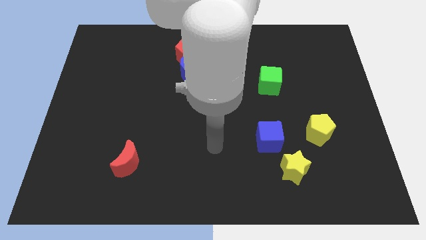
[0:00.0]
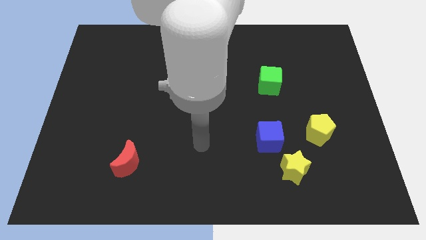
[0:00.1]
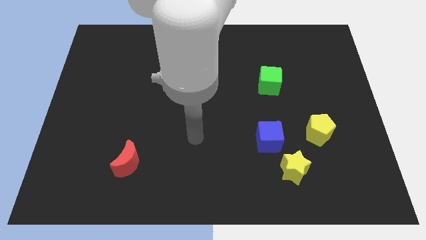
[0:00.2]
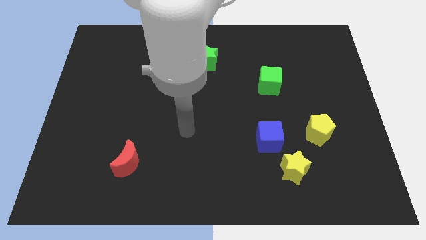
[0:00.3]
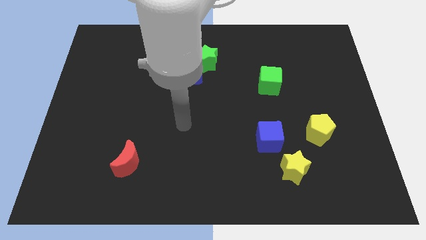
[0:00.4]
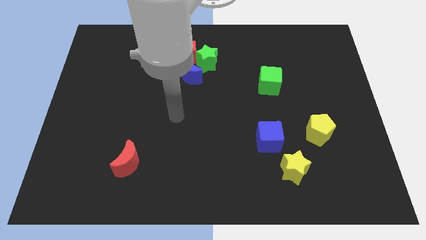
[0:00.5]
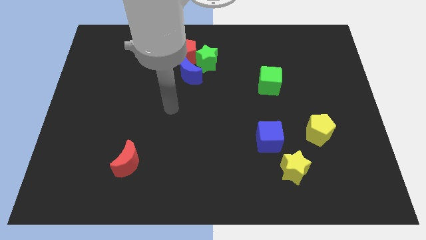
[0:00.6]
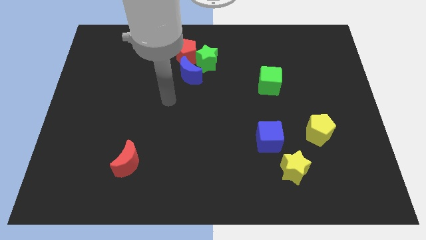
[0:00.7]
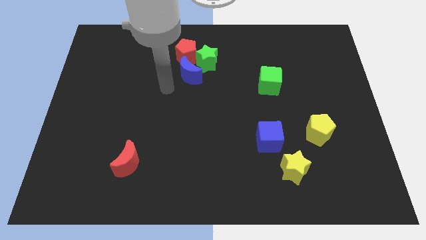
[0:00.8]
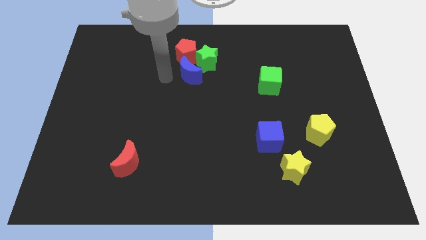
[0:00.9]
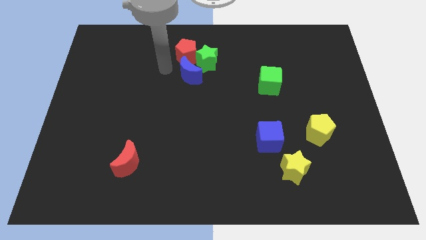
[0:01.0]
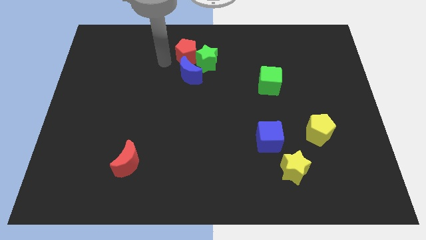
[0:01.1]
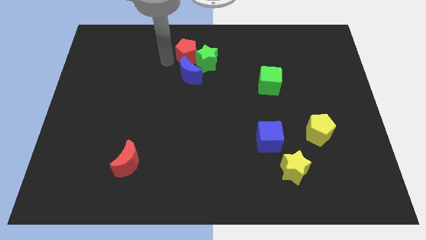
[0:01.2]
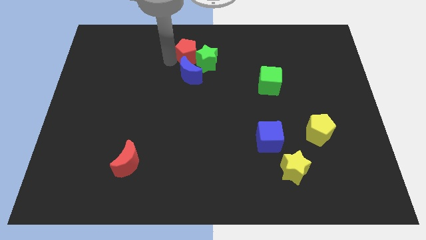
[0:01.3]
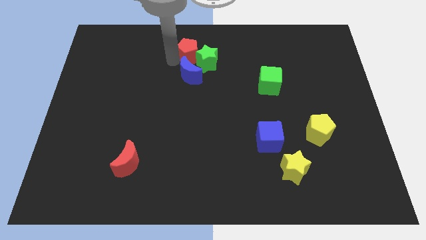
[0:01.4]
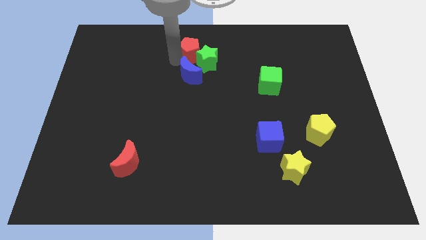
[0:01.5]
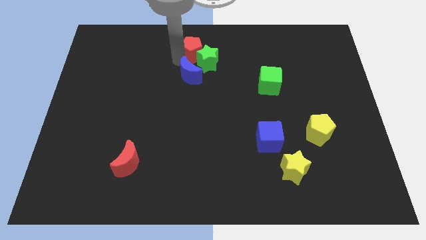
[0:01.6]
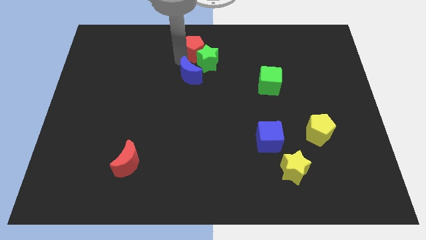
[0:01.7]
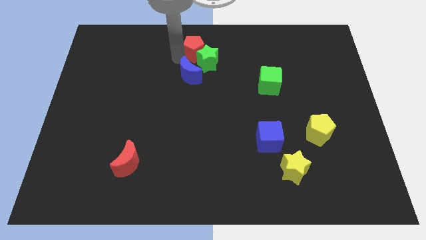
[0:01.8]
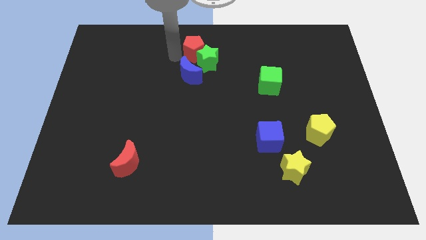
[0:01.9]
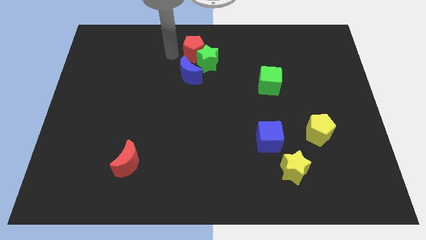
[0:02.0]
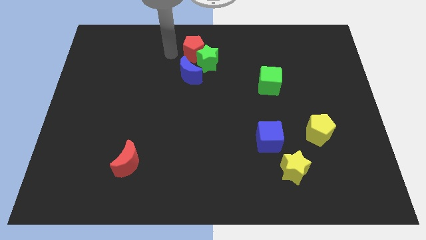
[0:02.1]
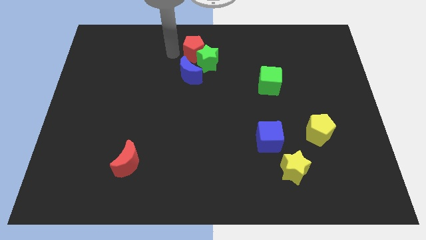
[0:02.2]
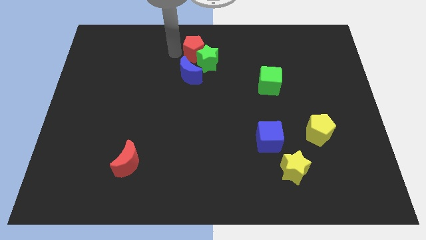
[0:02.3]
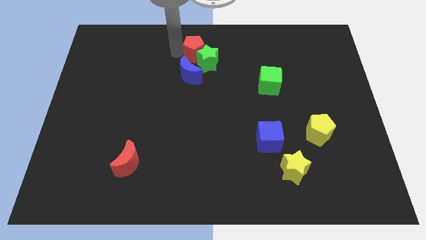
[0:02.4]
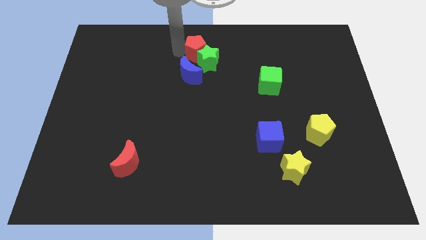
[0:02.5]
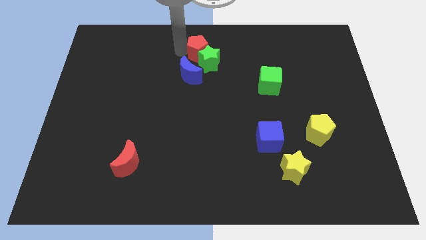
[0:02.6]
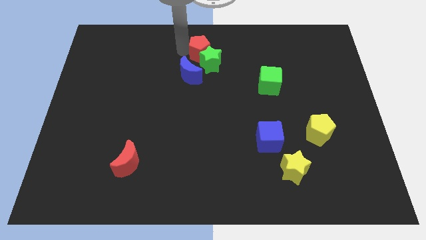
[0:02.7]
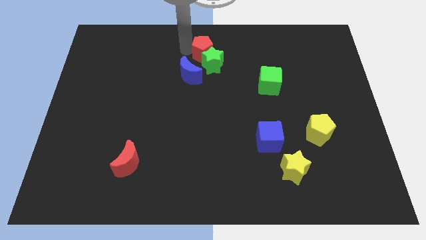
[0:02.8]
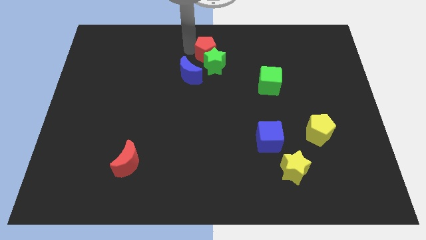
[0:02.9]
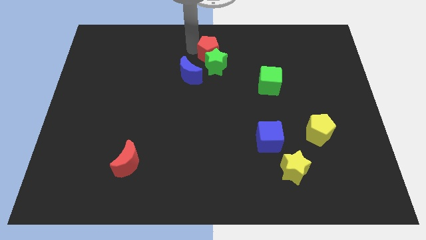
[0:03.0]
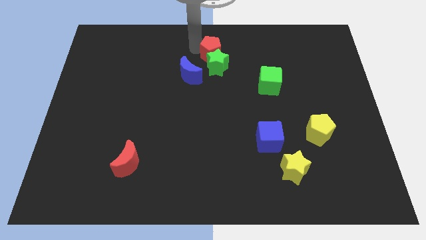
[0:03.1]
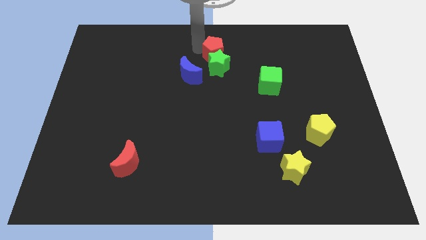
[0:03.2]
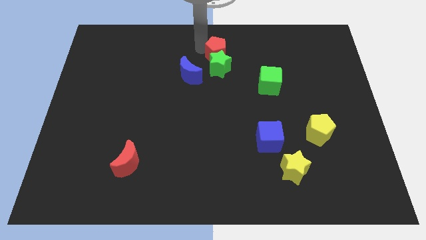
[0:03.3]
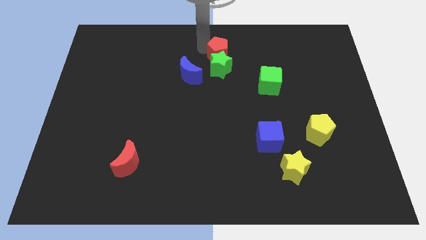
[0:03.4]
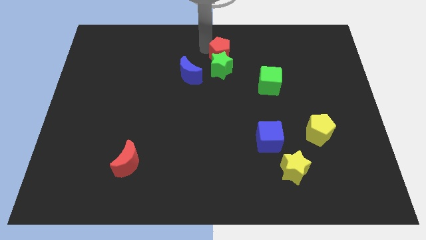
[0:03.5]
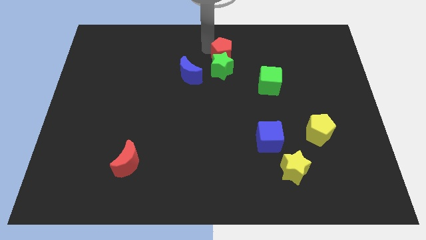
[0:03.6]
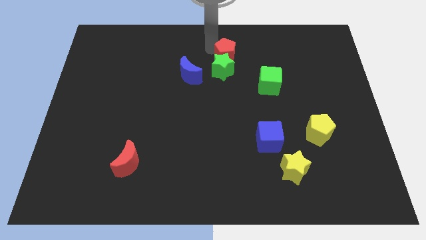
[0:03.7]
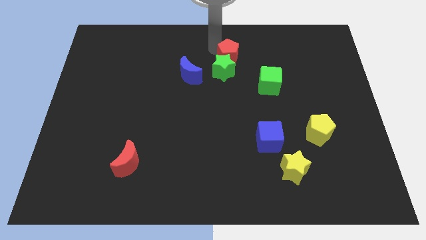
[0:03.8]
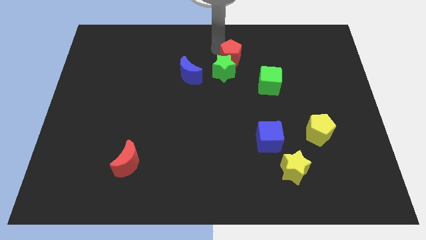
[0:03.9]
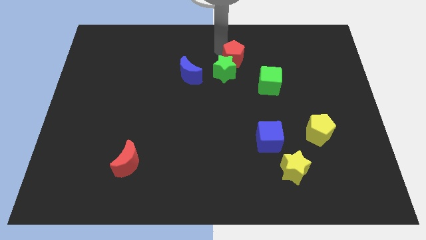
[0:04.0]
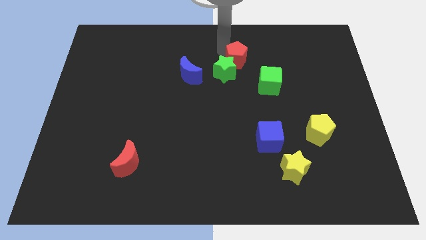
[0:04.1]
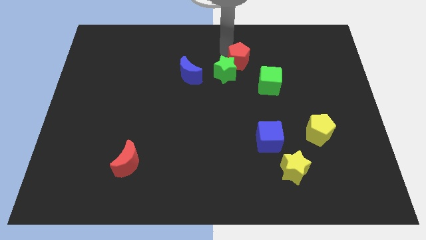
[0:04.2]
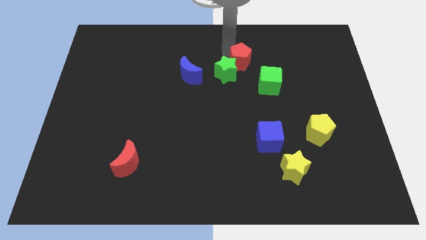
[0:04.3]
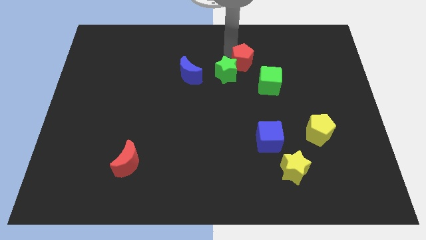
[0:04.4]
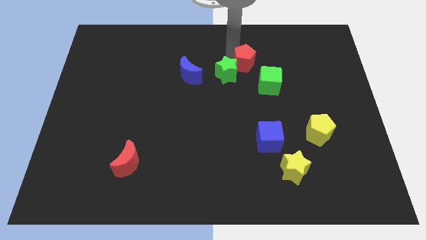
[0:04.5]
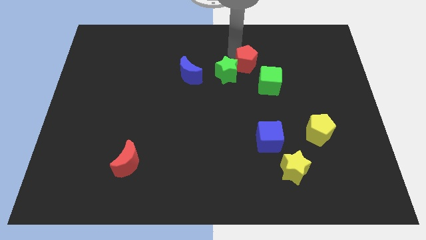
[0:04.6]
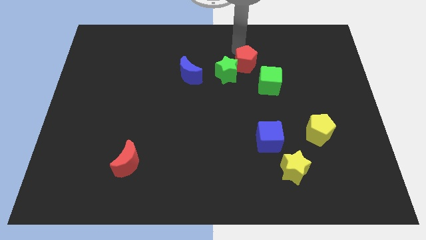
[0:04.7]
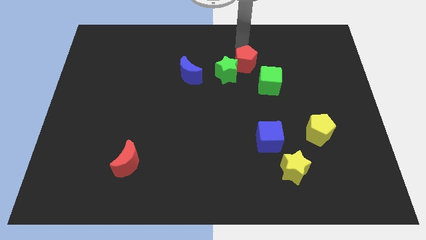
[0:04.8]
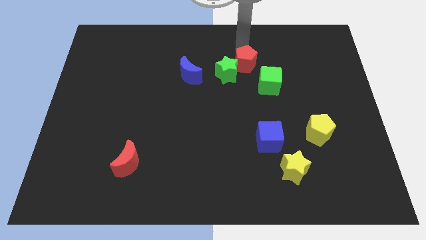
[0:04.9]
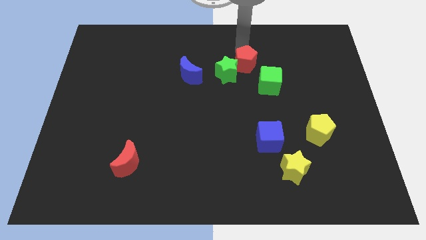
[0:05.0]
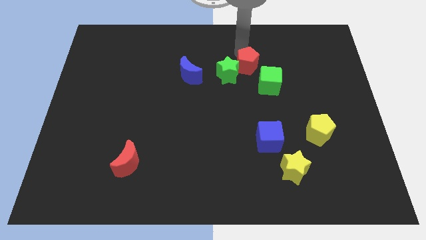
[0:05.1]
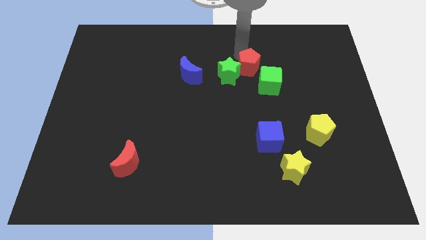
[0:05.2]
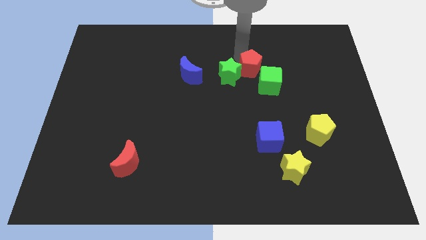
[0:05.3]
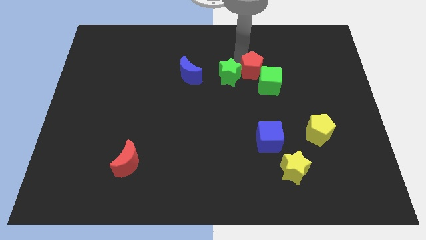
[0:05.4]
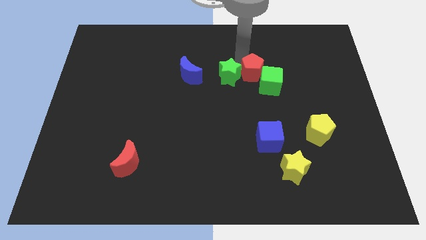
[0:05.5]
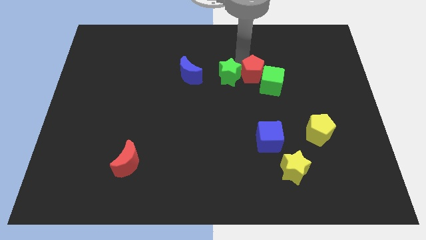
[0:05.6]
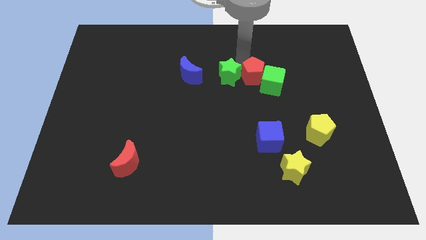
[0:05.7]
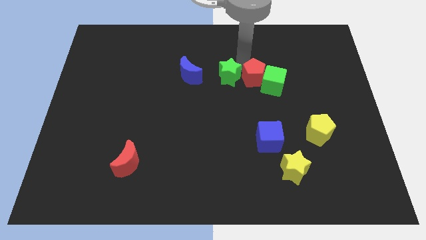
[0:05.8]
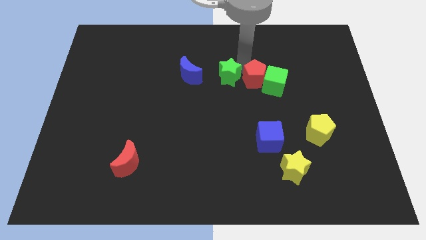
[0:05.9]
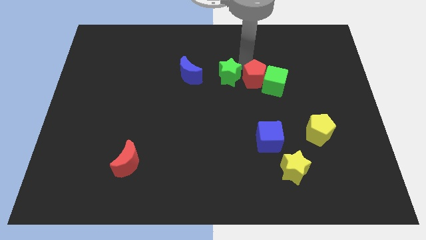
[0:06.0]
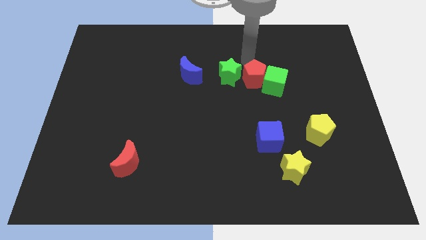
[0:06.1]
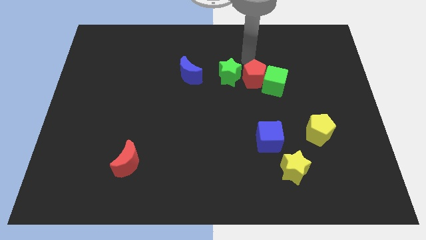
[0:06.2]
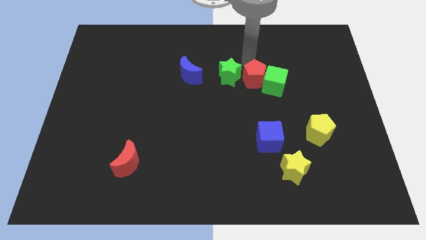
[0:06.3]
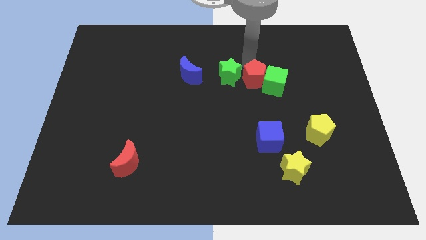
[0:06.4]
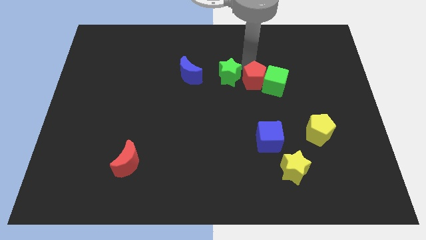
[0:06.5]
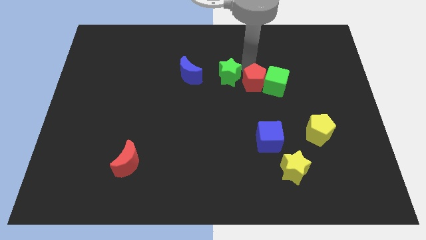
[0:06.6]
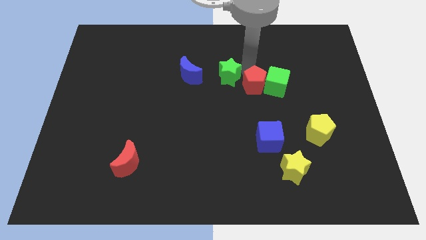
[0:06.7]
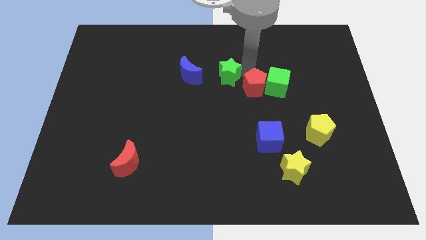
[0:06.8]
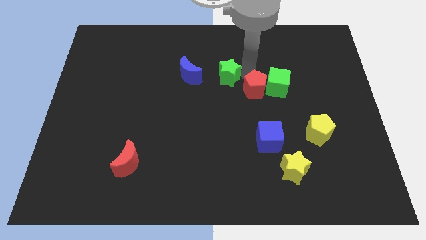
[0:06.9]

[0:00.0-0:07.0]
push the red pentagon downwards and right

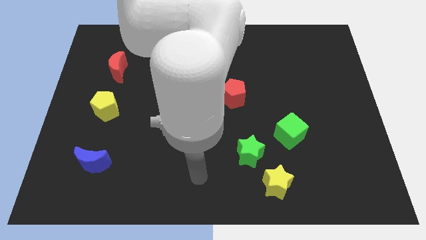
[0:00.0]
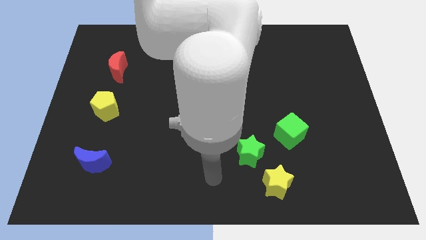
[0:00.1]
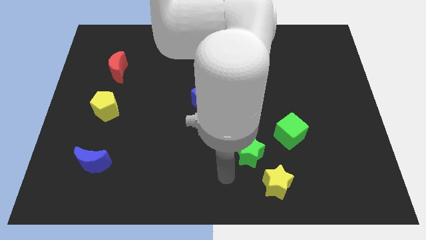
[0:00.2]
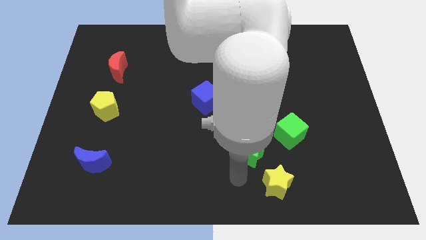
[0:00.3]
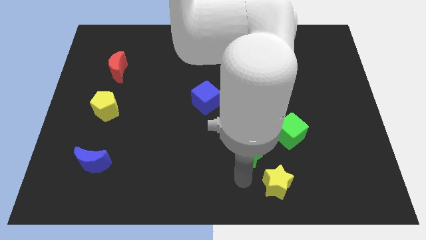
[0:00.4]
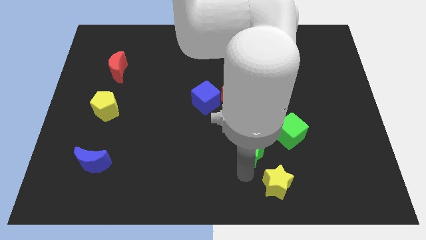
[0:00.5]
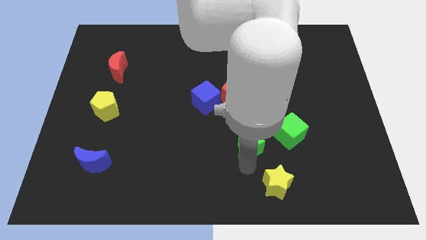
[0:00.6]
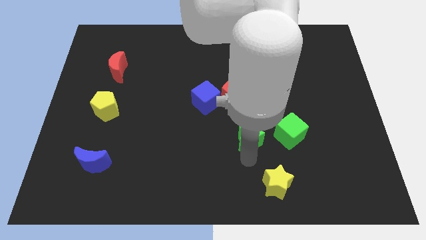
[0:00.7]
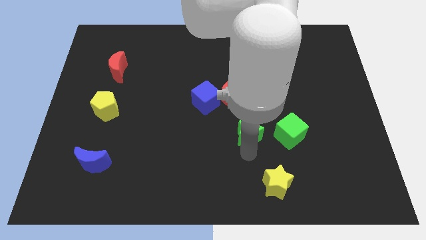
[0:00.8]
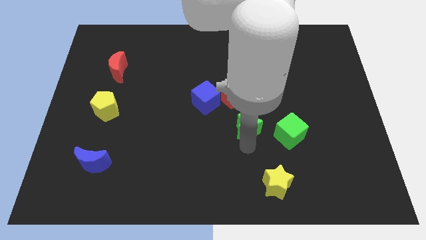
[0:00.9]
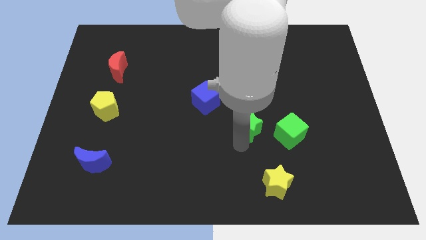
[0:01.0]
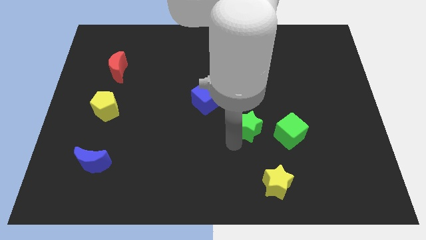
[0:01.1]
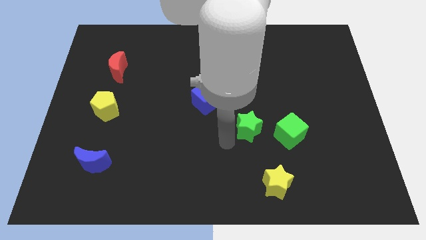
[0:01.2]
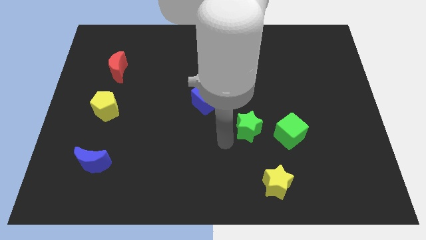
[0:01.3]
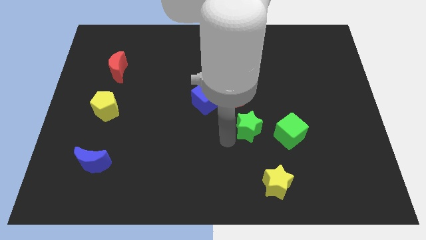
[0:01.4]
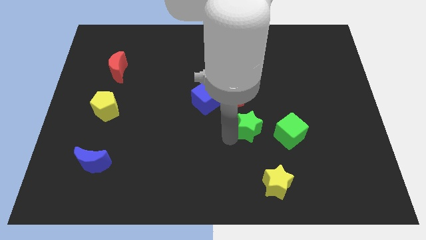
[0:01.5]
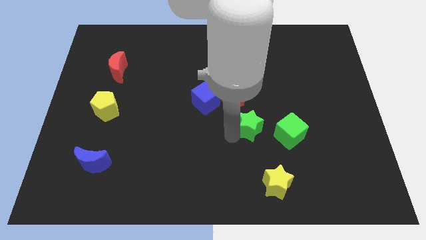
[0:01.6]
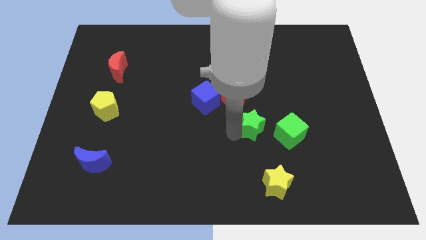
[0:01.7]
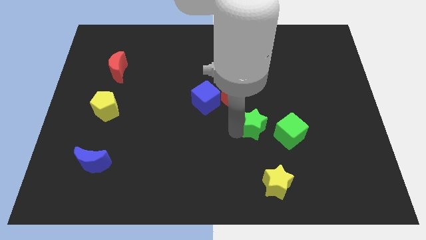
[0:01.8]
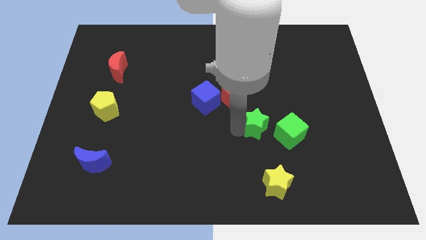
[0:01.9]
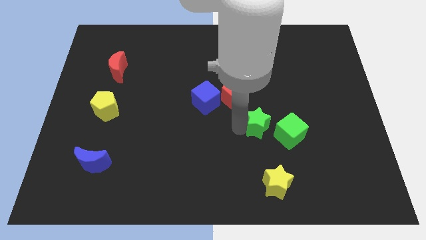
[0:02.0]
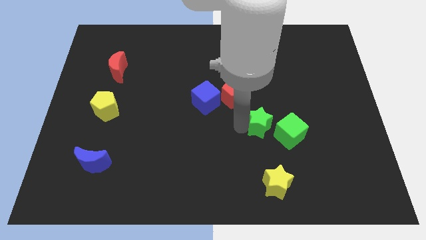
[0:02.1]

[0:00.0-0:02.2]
move the green star diagonally upwards and to the right somewhat
